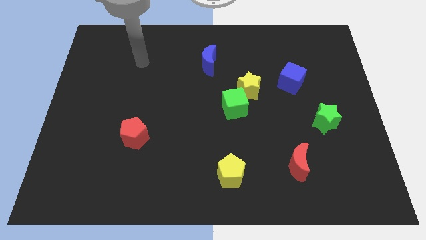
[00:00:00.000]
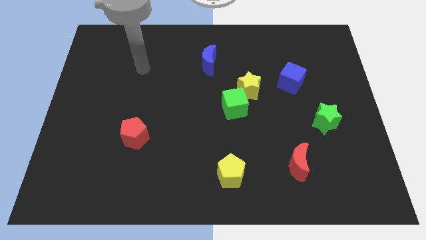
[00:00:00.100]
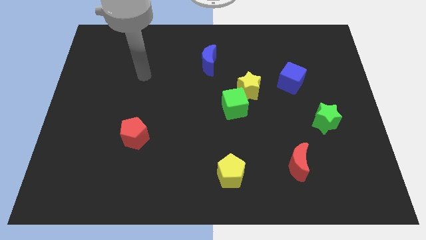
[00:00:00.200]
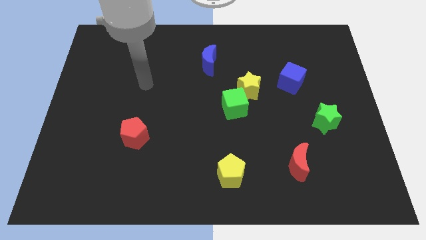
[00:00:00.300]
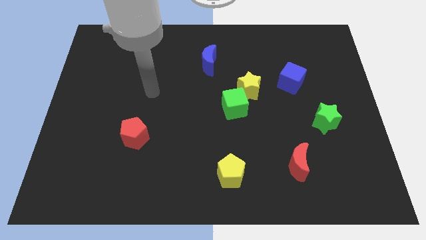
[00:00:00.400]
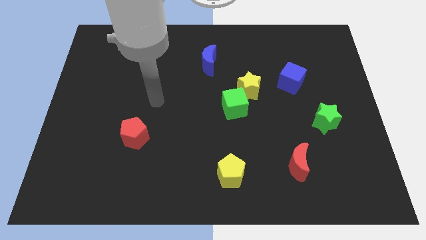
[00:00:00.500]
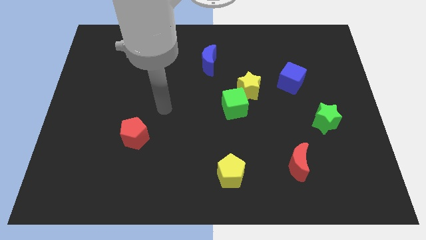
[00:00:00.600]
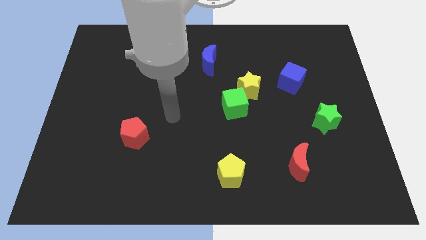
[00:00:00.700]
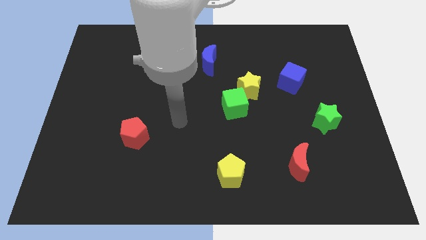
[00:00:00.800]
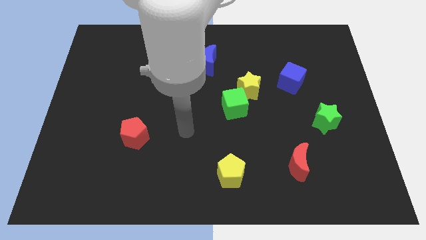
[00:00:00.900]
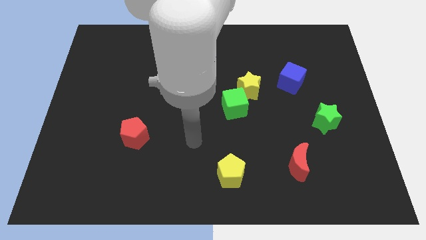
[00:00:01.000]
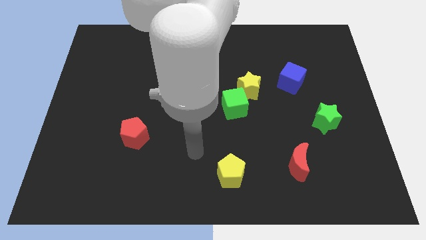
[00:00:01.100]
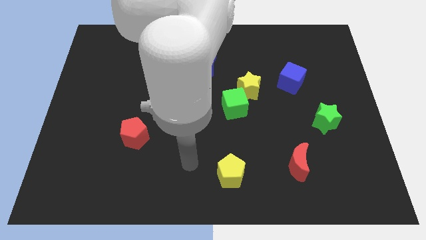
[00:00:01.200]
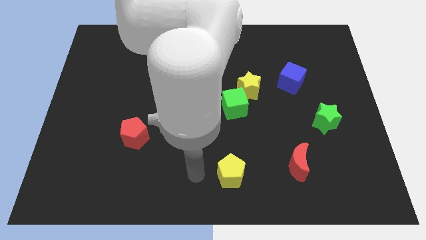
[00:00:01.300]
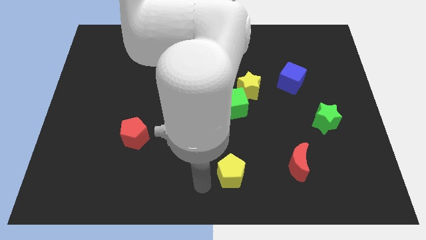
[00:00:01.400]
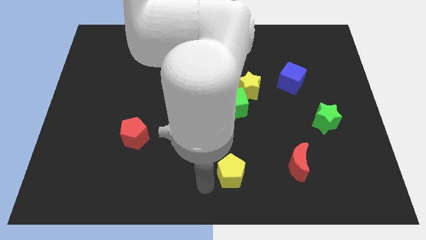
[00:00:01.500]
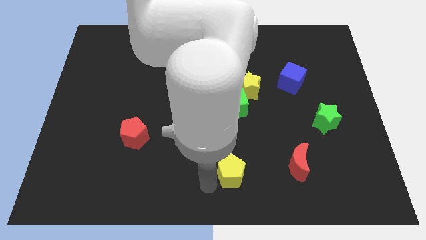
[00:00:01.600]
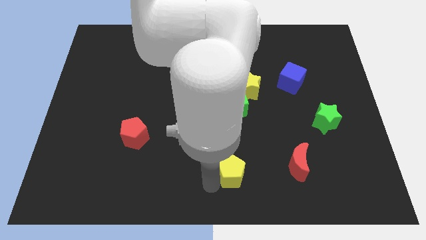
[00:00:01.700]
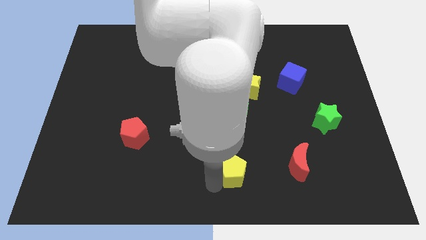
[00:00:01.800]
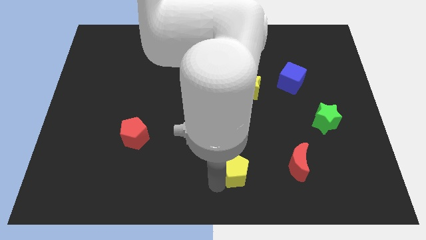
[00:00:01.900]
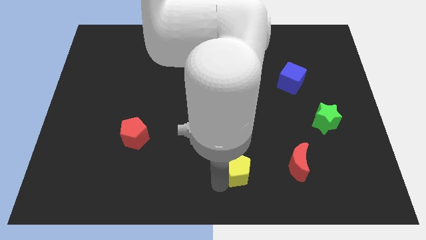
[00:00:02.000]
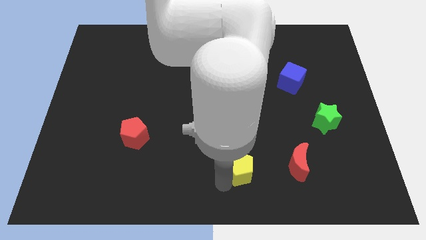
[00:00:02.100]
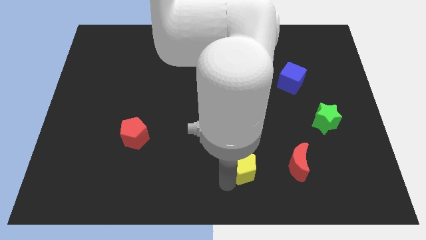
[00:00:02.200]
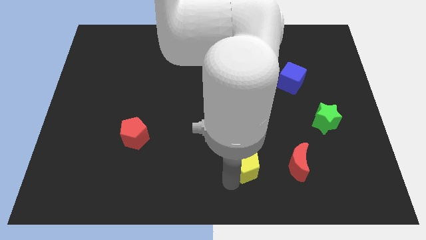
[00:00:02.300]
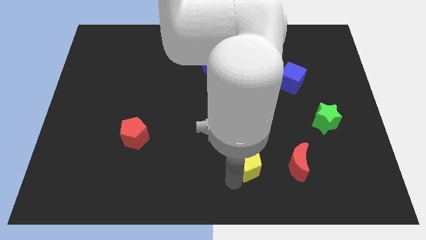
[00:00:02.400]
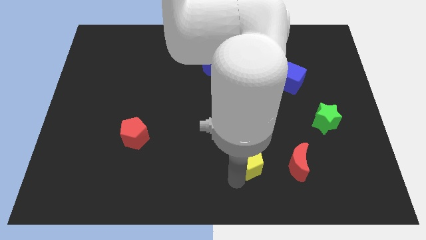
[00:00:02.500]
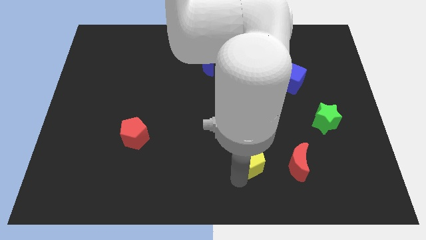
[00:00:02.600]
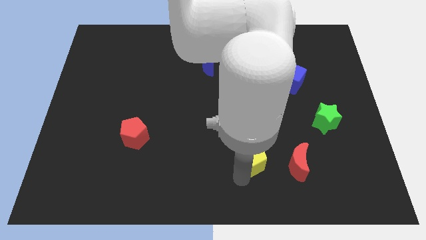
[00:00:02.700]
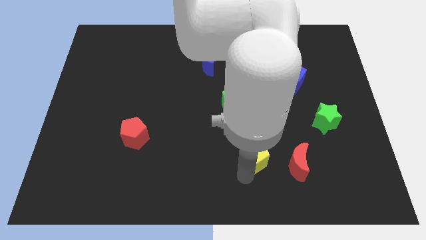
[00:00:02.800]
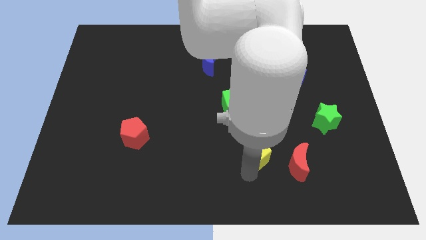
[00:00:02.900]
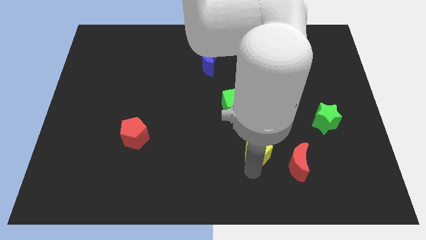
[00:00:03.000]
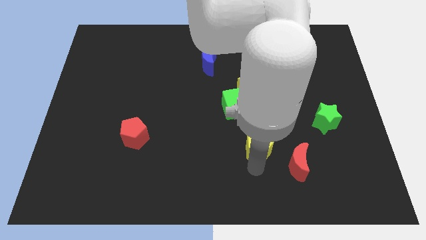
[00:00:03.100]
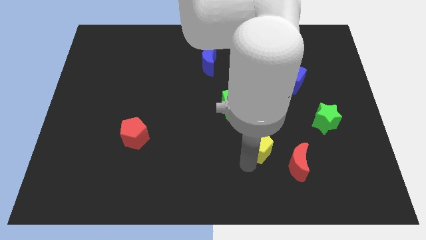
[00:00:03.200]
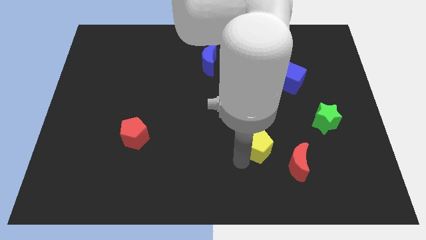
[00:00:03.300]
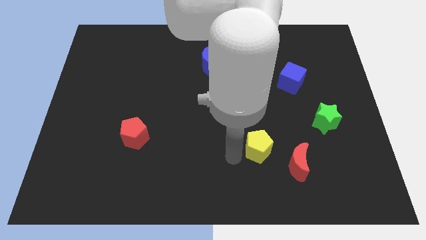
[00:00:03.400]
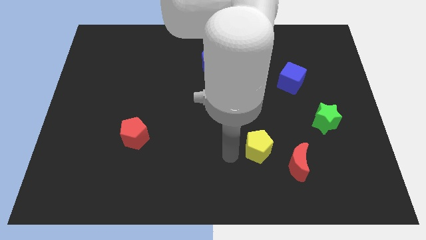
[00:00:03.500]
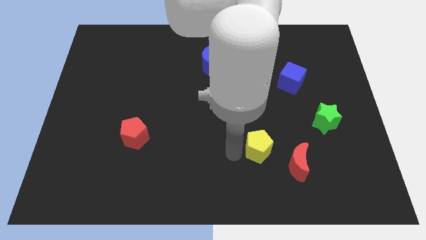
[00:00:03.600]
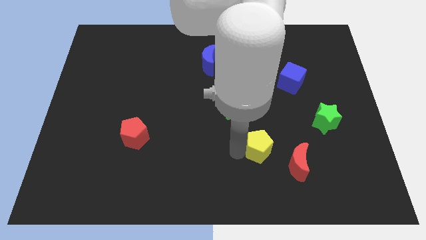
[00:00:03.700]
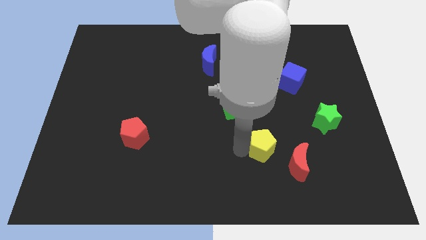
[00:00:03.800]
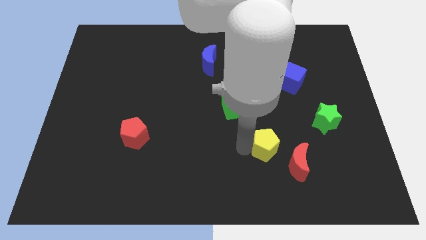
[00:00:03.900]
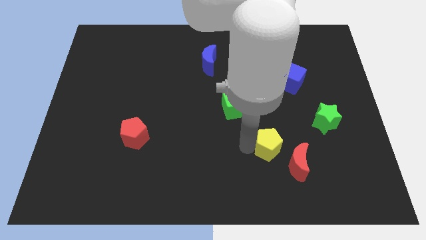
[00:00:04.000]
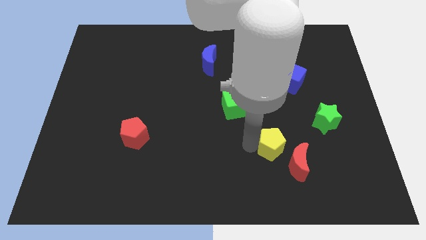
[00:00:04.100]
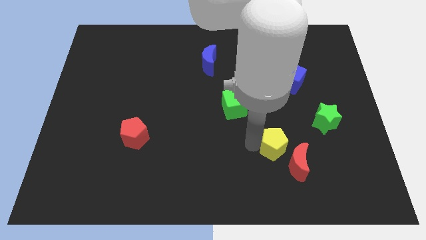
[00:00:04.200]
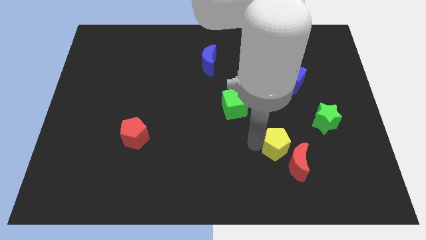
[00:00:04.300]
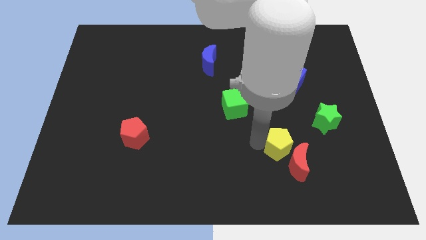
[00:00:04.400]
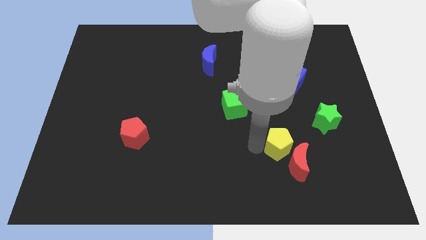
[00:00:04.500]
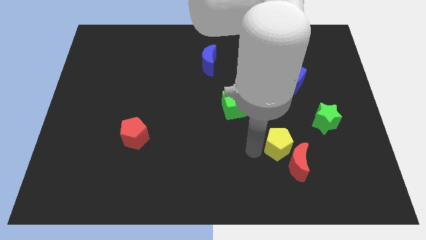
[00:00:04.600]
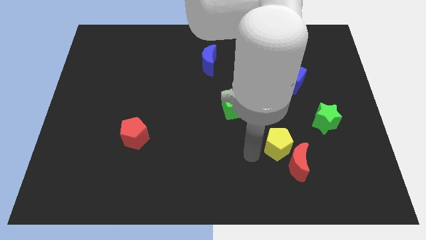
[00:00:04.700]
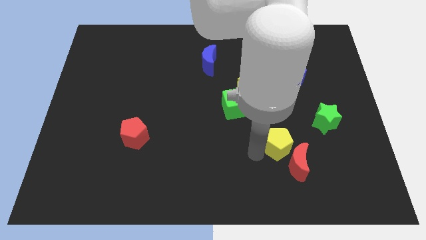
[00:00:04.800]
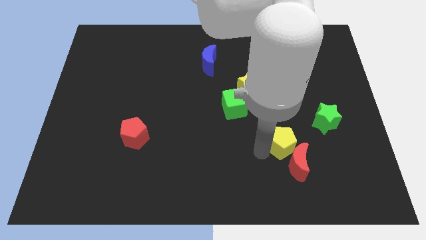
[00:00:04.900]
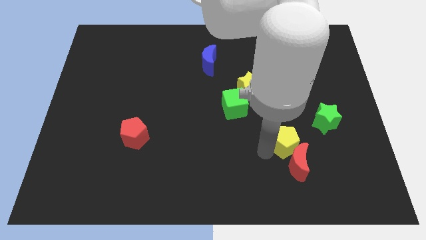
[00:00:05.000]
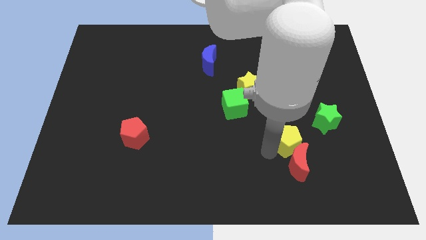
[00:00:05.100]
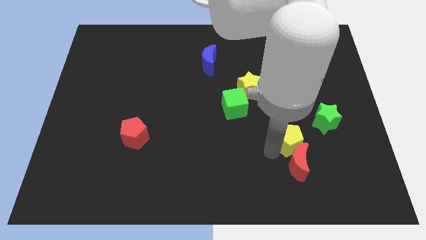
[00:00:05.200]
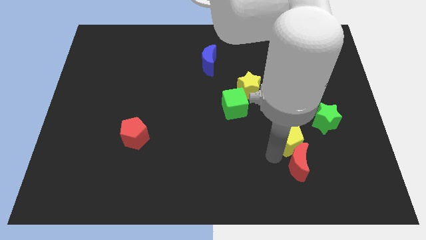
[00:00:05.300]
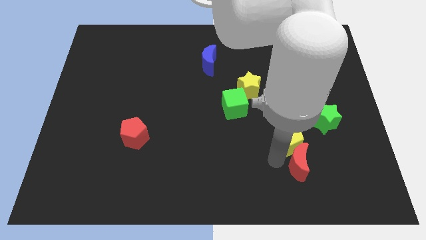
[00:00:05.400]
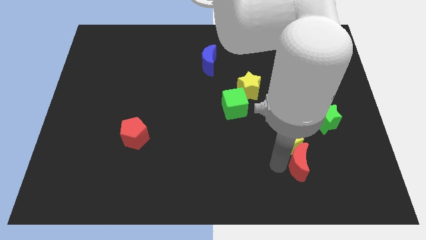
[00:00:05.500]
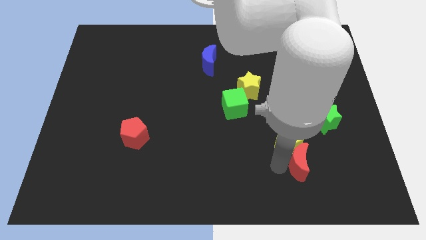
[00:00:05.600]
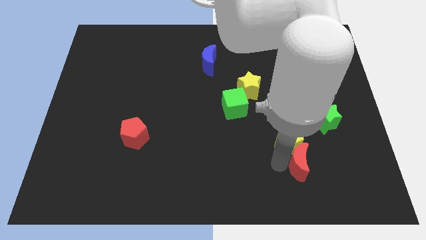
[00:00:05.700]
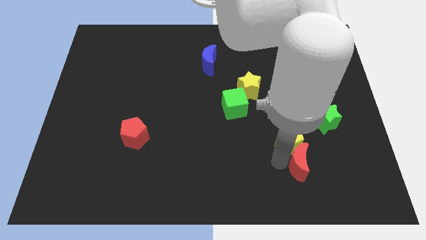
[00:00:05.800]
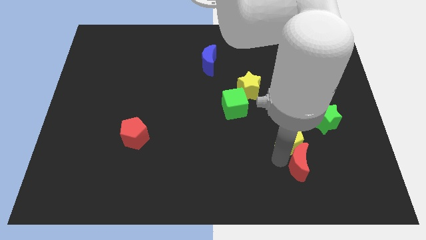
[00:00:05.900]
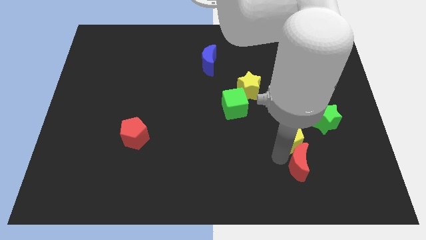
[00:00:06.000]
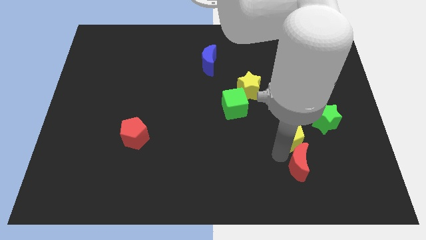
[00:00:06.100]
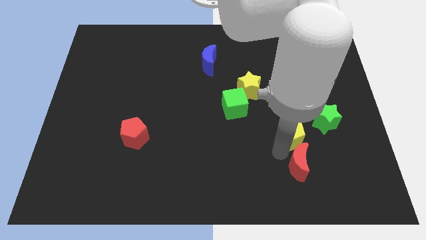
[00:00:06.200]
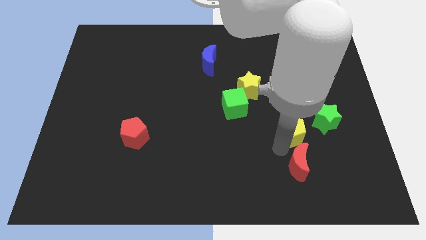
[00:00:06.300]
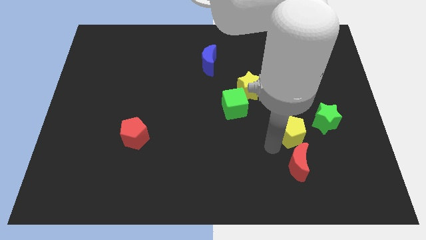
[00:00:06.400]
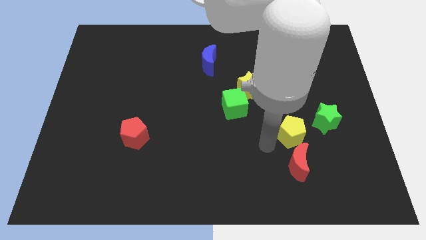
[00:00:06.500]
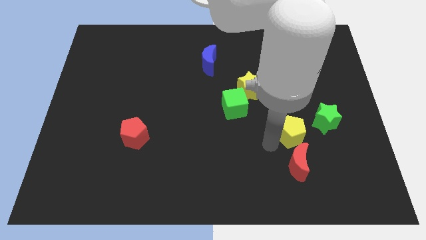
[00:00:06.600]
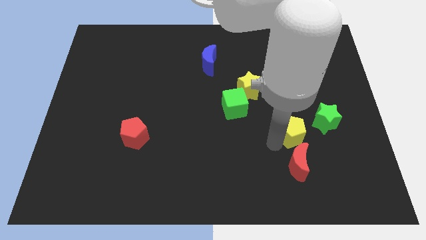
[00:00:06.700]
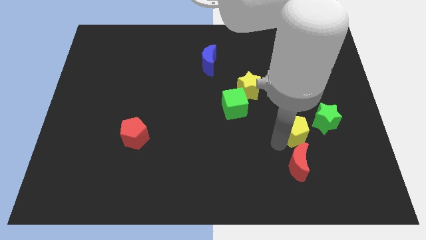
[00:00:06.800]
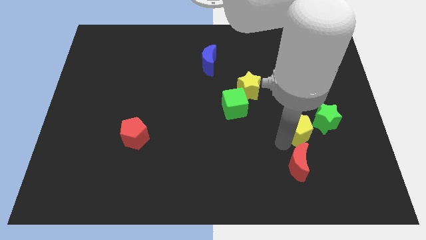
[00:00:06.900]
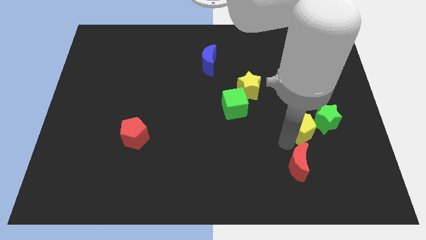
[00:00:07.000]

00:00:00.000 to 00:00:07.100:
slide the yellow pentagon close to the green star
